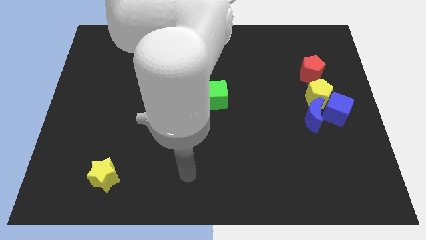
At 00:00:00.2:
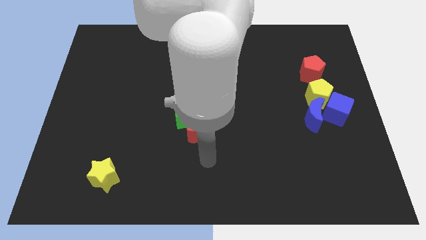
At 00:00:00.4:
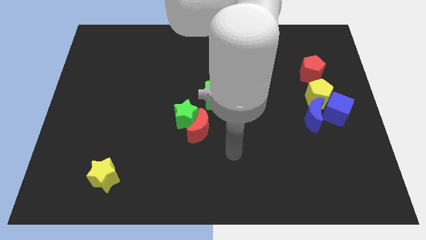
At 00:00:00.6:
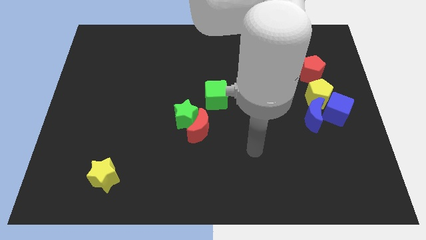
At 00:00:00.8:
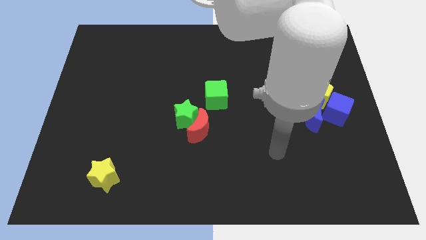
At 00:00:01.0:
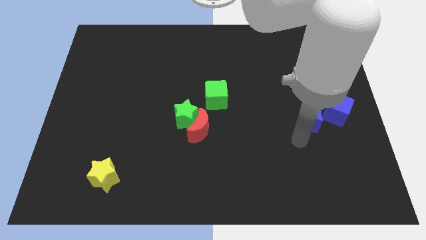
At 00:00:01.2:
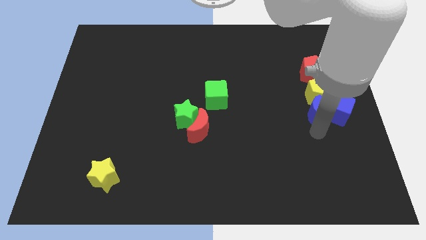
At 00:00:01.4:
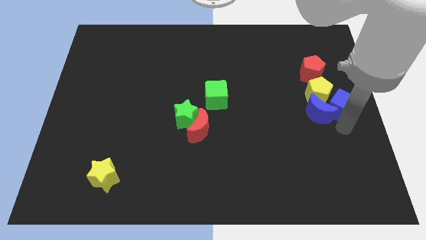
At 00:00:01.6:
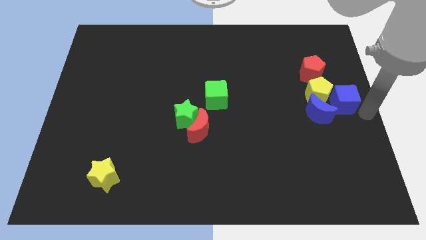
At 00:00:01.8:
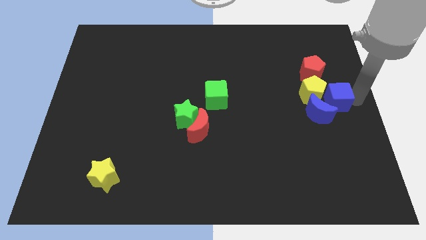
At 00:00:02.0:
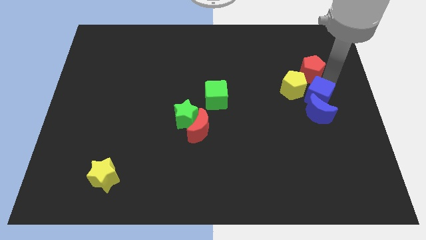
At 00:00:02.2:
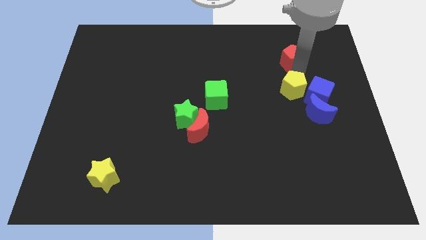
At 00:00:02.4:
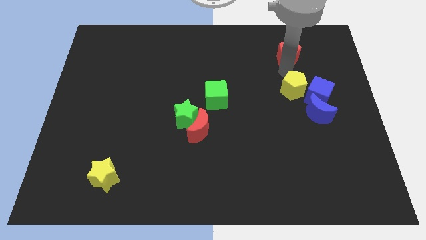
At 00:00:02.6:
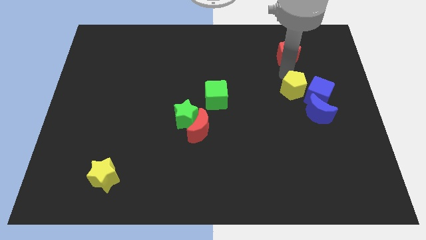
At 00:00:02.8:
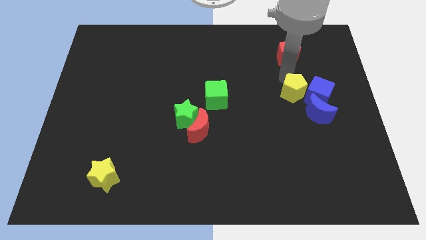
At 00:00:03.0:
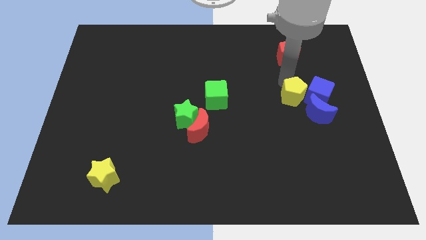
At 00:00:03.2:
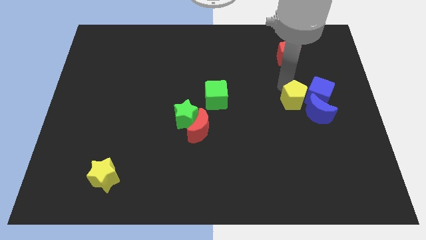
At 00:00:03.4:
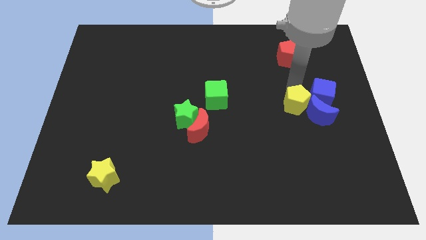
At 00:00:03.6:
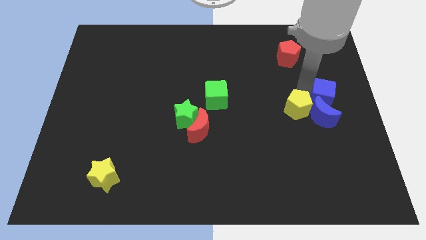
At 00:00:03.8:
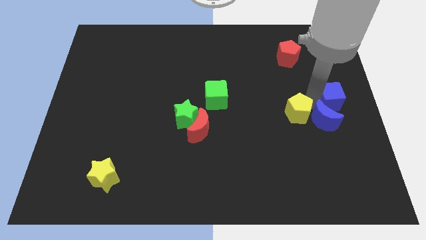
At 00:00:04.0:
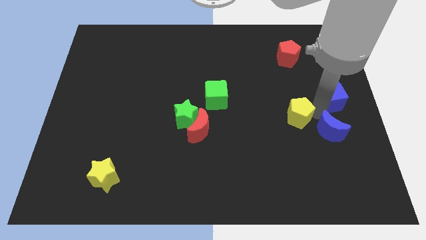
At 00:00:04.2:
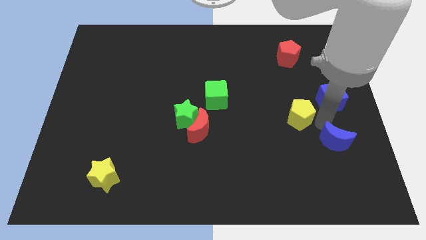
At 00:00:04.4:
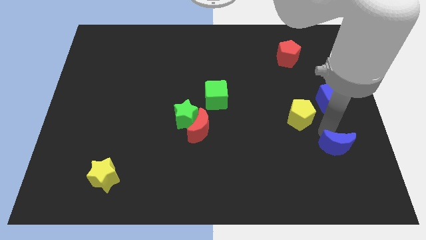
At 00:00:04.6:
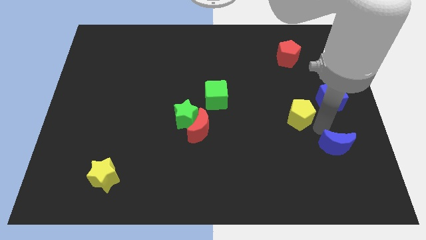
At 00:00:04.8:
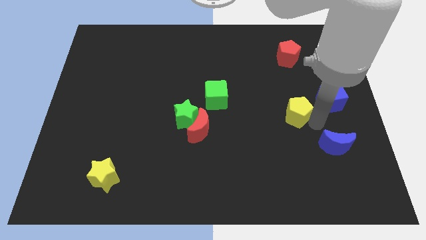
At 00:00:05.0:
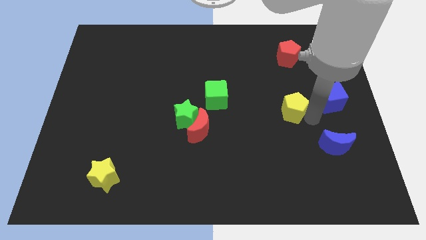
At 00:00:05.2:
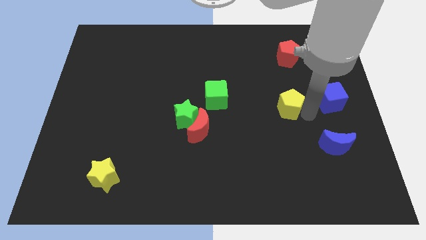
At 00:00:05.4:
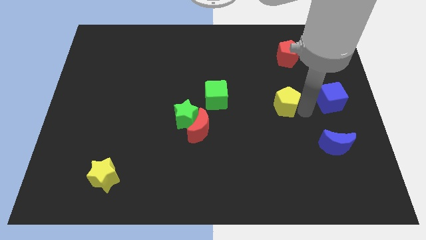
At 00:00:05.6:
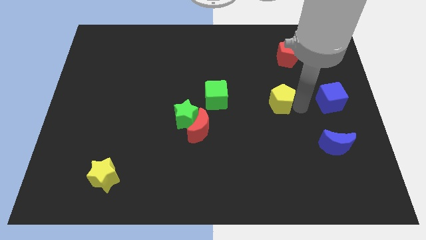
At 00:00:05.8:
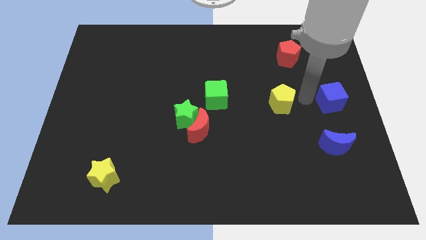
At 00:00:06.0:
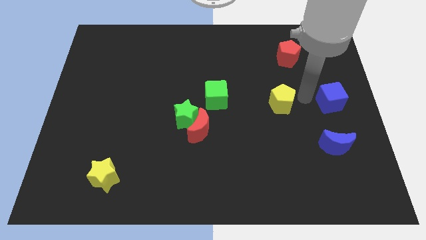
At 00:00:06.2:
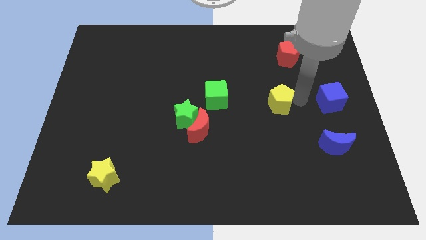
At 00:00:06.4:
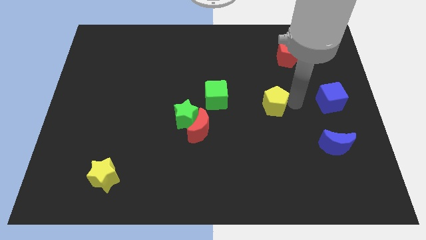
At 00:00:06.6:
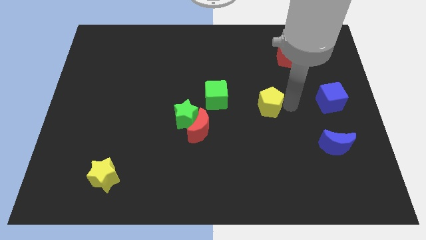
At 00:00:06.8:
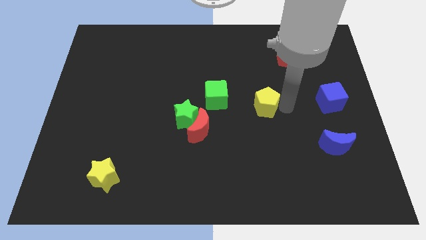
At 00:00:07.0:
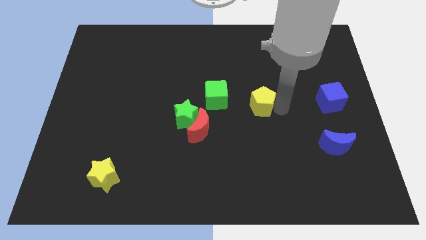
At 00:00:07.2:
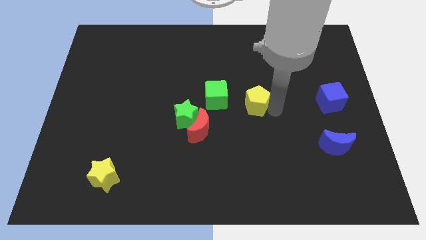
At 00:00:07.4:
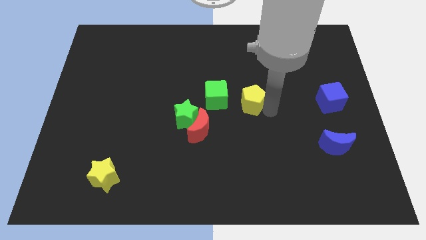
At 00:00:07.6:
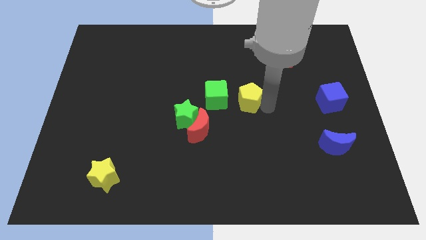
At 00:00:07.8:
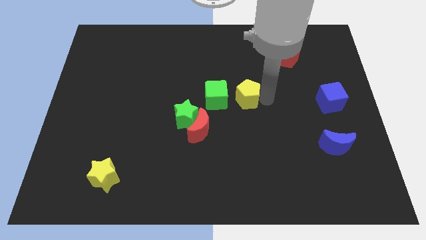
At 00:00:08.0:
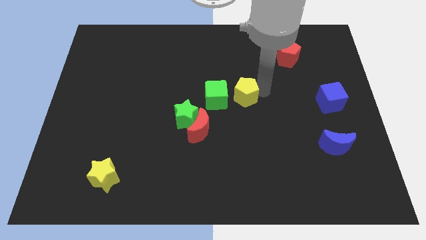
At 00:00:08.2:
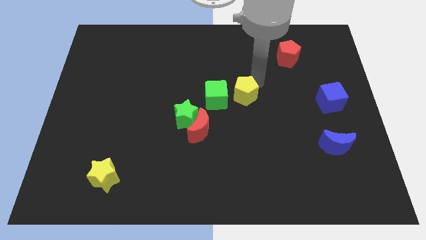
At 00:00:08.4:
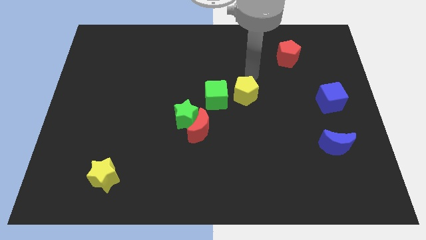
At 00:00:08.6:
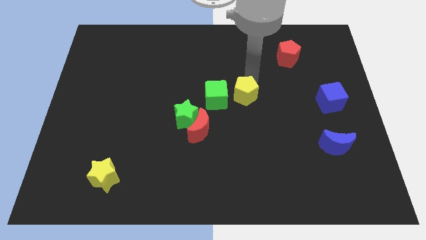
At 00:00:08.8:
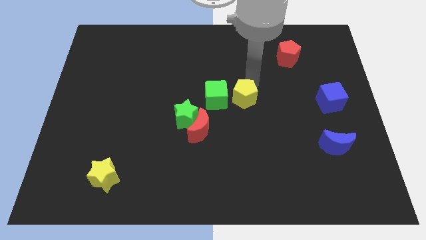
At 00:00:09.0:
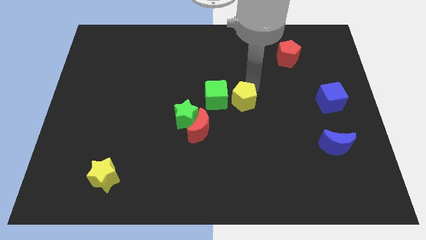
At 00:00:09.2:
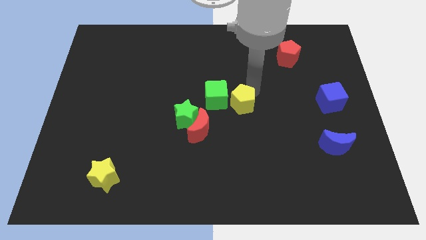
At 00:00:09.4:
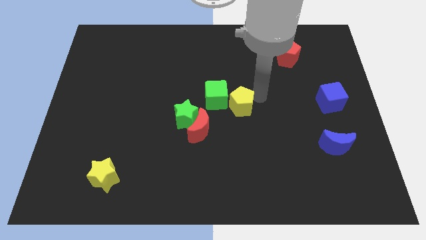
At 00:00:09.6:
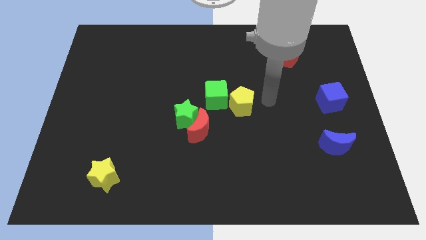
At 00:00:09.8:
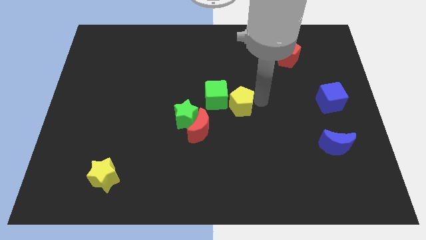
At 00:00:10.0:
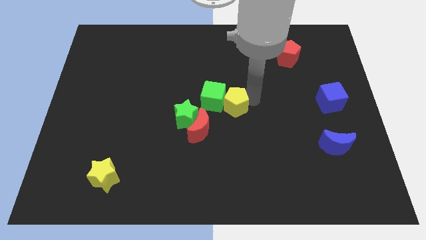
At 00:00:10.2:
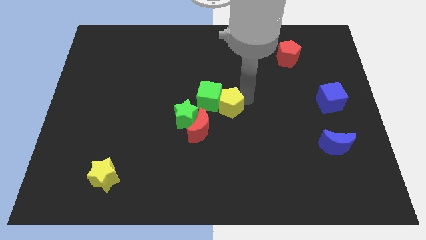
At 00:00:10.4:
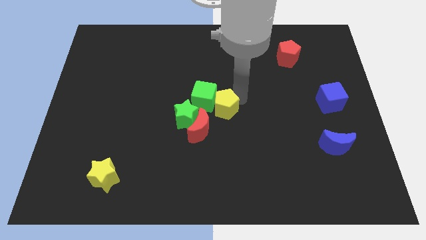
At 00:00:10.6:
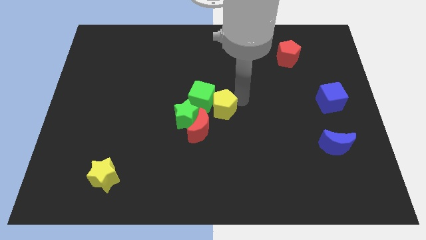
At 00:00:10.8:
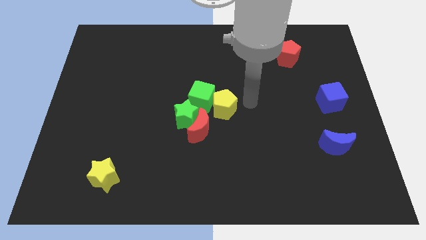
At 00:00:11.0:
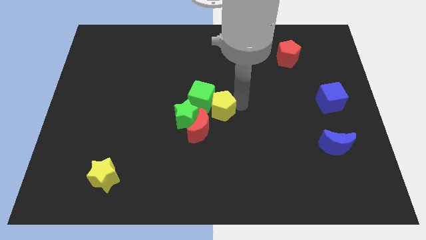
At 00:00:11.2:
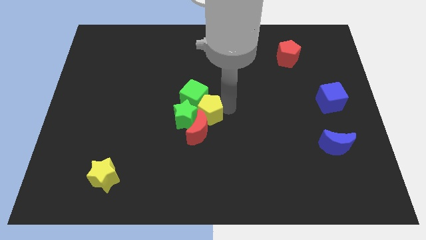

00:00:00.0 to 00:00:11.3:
move the yellow pentagon close to the green star

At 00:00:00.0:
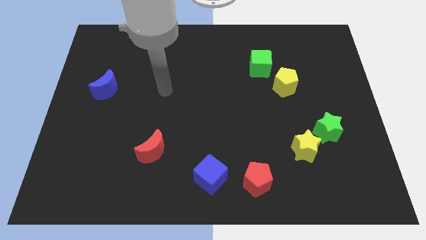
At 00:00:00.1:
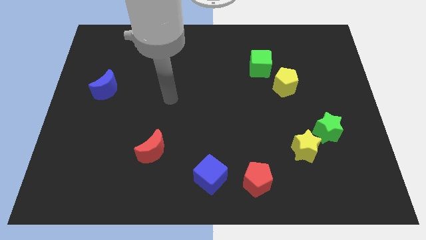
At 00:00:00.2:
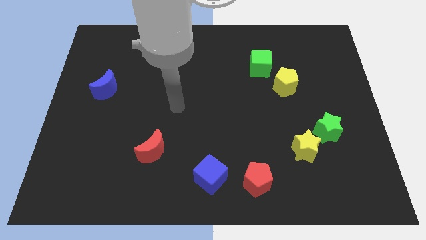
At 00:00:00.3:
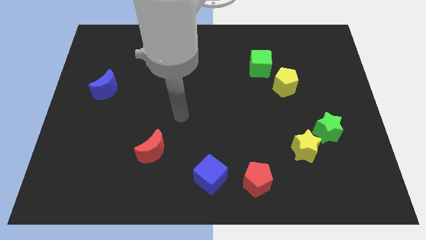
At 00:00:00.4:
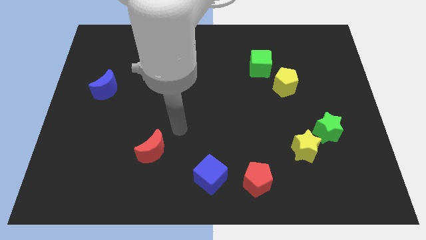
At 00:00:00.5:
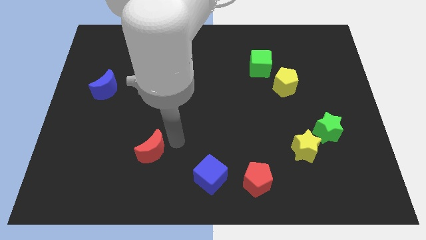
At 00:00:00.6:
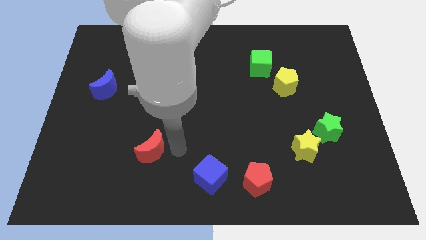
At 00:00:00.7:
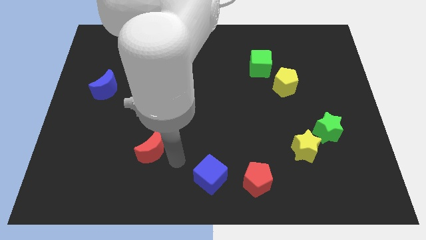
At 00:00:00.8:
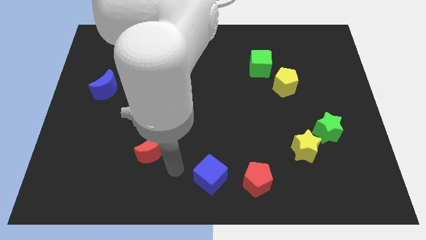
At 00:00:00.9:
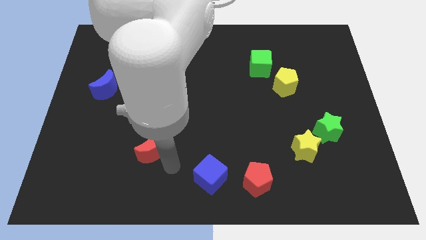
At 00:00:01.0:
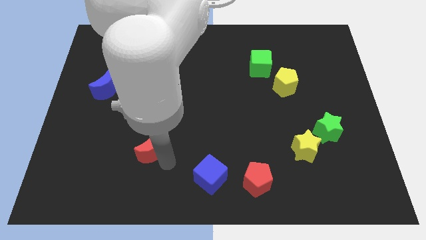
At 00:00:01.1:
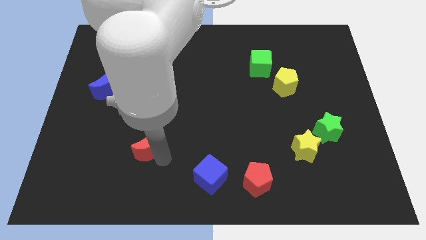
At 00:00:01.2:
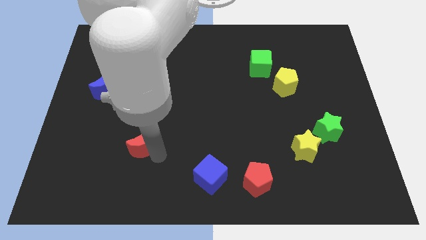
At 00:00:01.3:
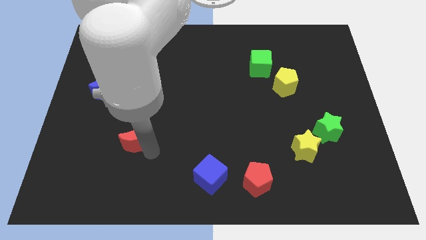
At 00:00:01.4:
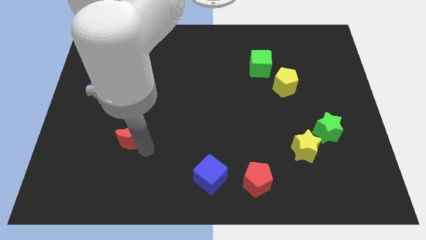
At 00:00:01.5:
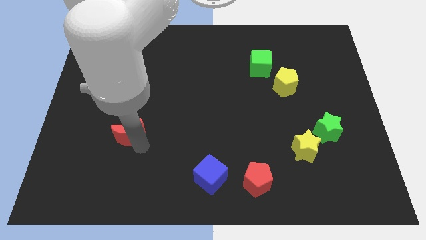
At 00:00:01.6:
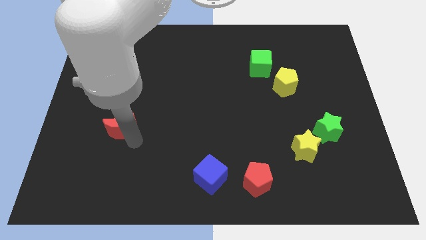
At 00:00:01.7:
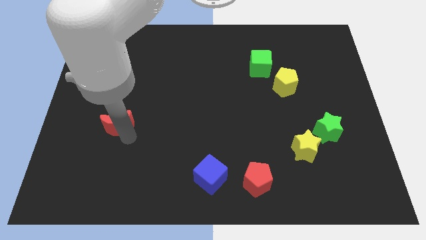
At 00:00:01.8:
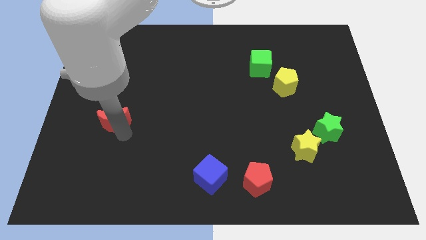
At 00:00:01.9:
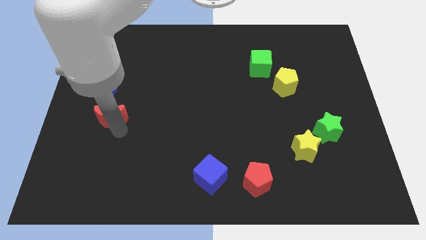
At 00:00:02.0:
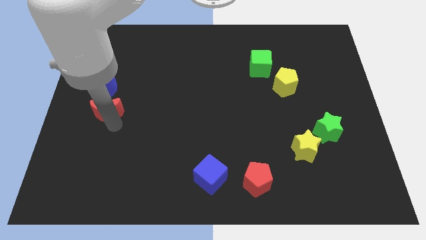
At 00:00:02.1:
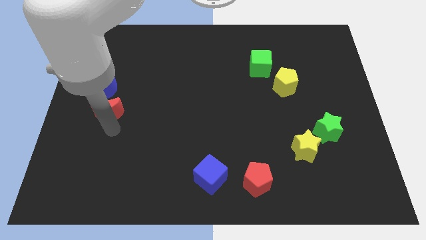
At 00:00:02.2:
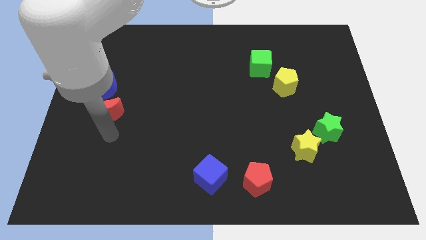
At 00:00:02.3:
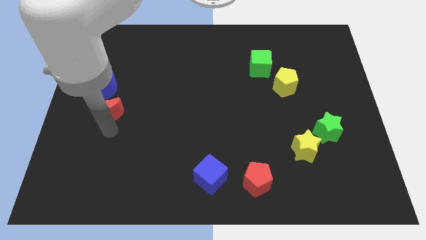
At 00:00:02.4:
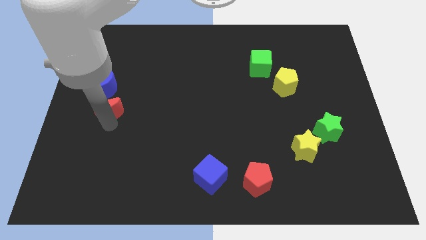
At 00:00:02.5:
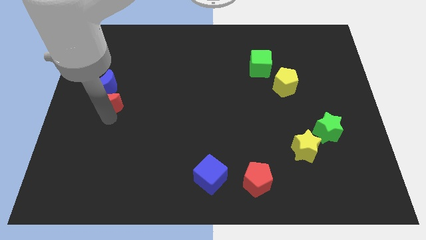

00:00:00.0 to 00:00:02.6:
push the red moon towards the blue moon
